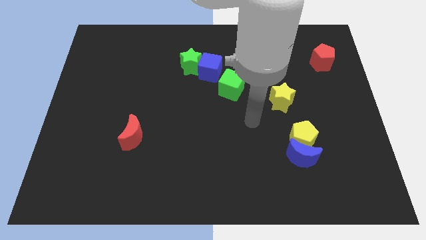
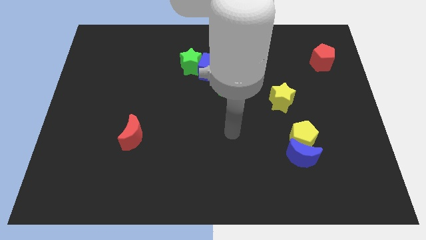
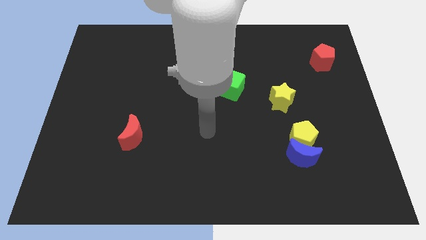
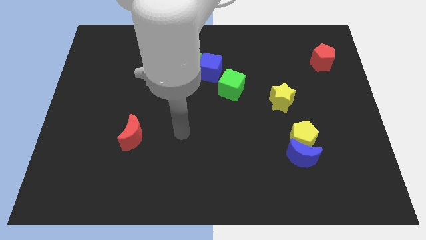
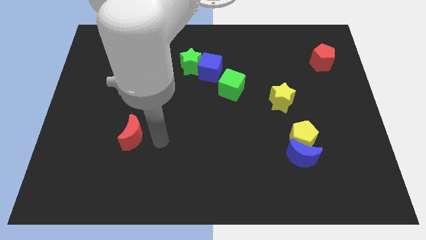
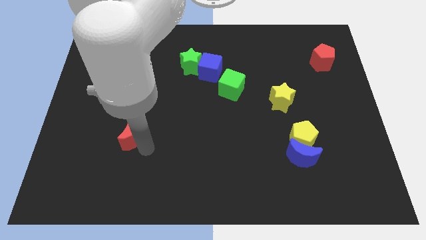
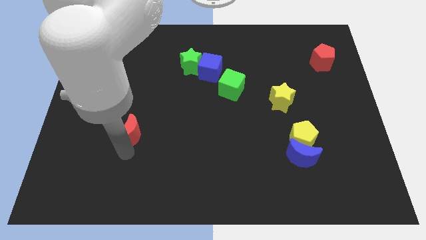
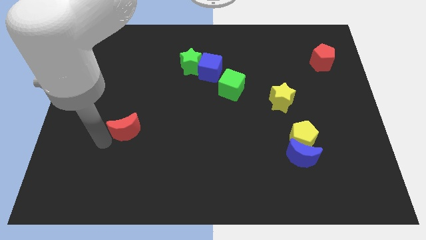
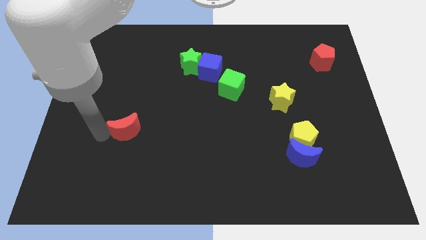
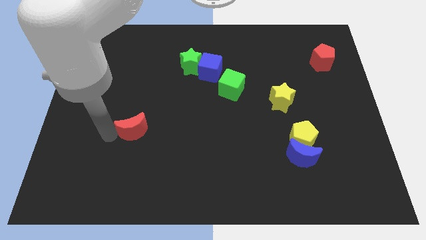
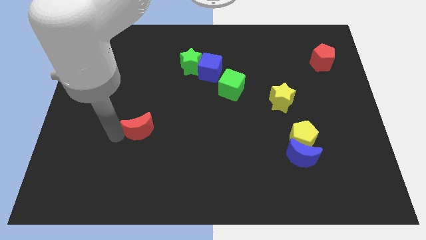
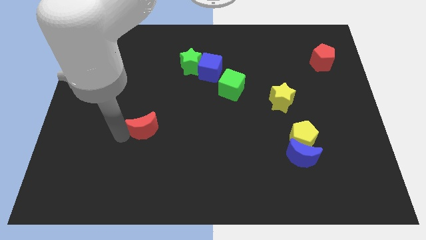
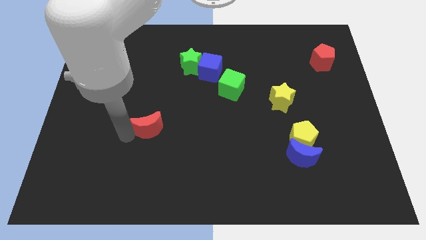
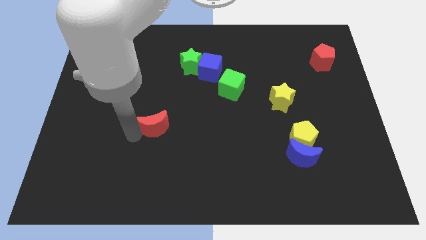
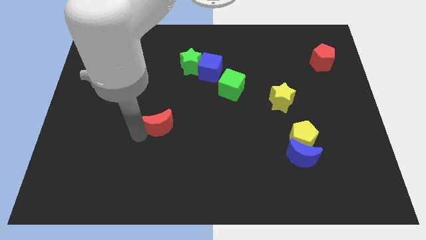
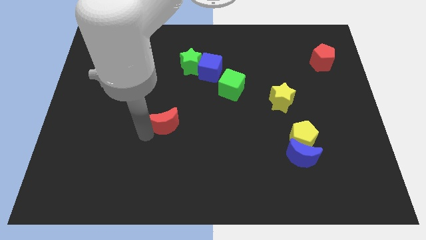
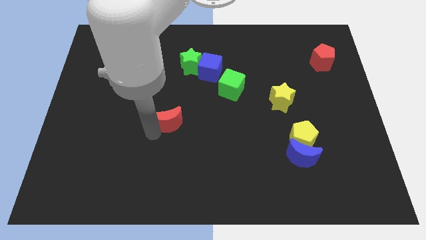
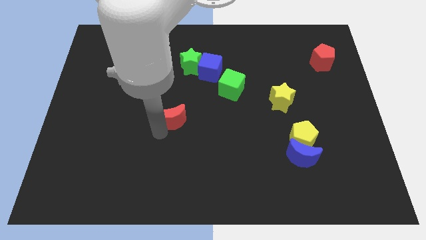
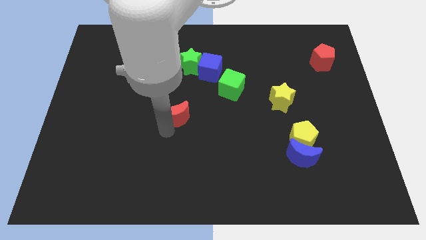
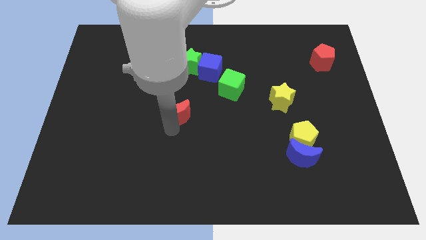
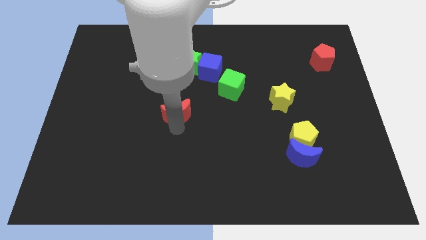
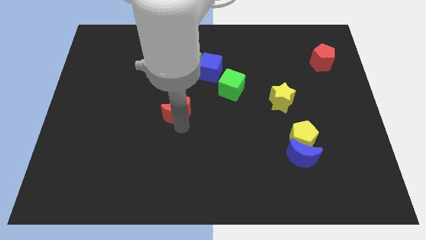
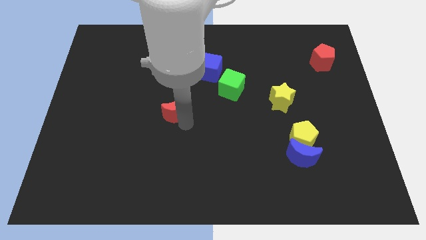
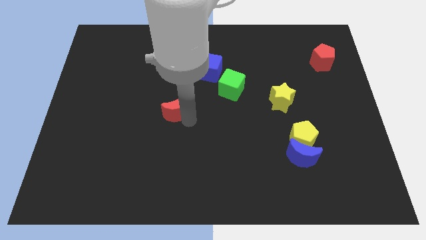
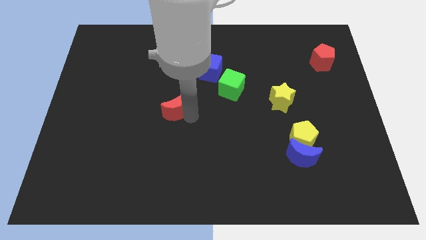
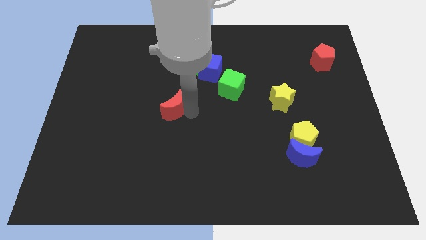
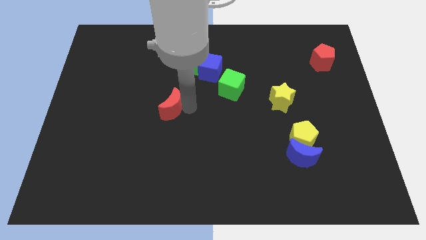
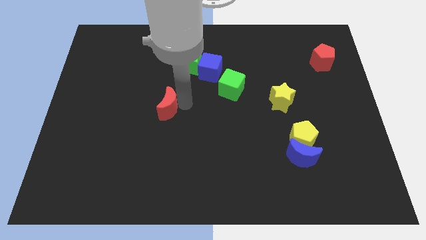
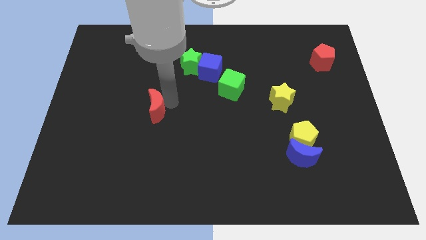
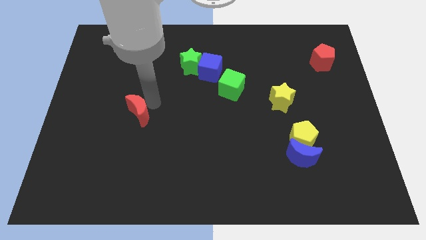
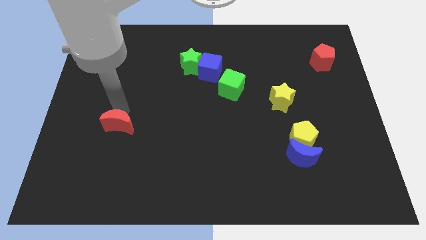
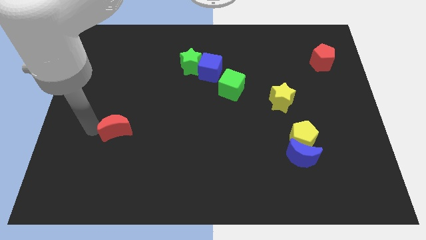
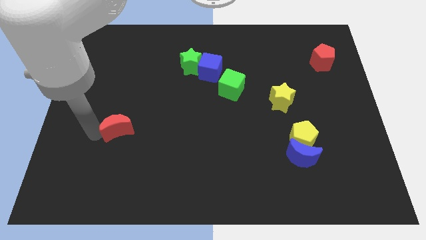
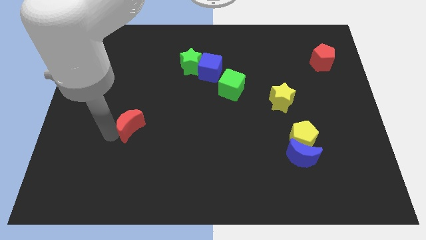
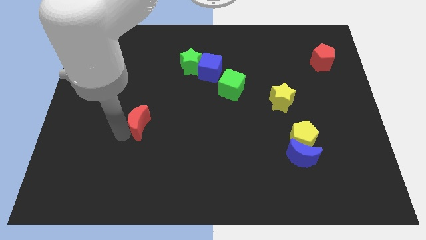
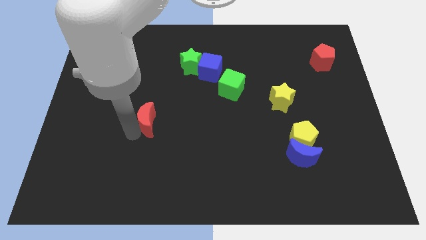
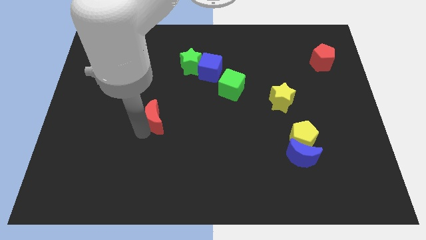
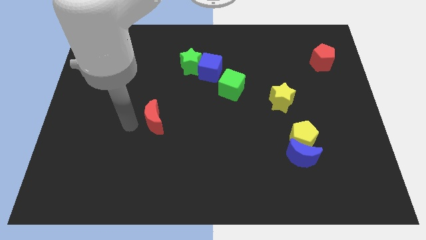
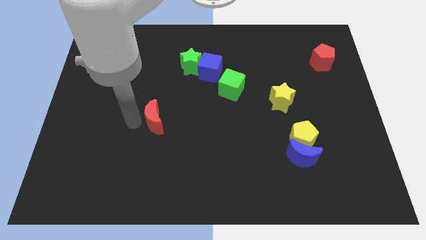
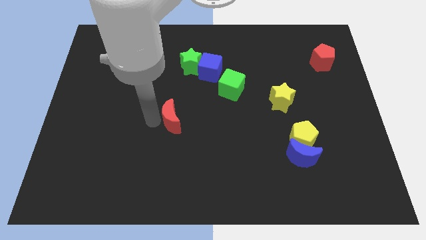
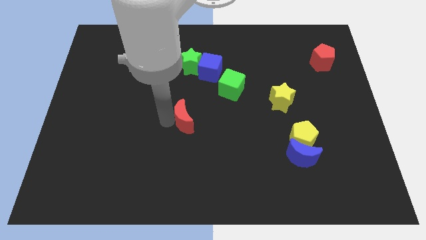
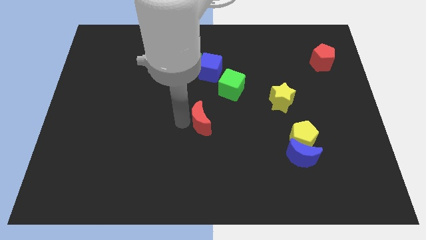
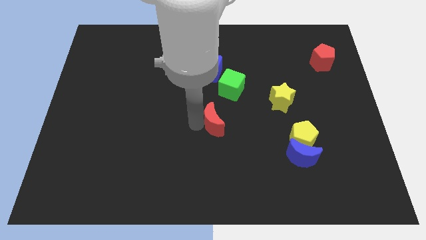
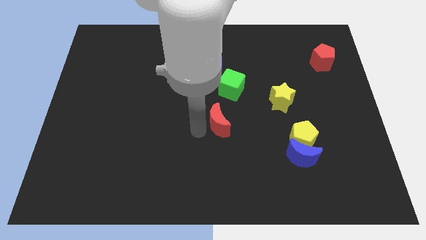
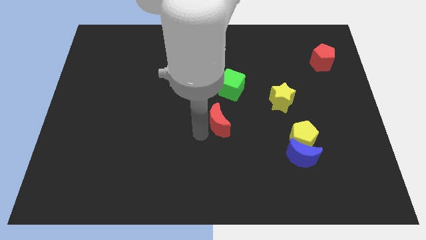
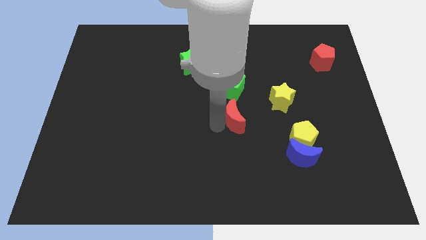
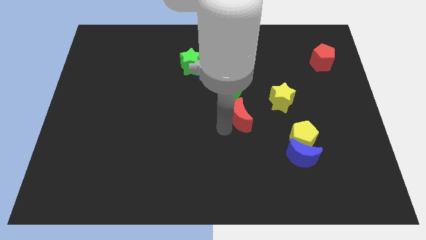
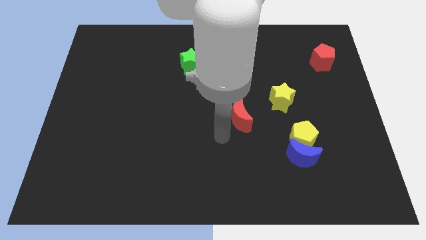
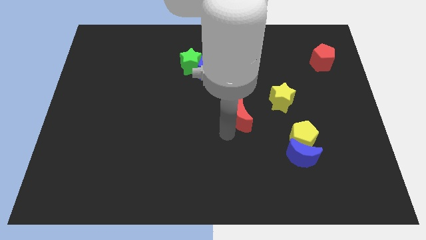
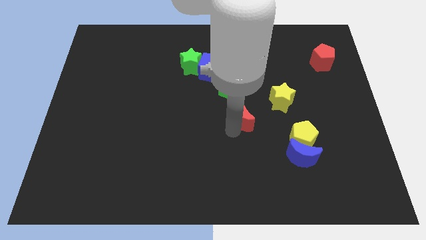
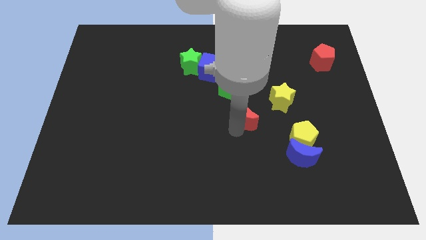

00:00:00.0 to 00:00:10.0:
move the red moon to the bottom right side of the green cube

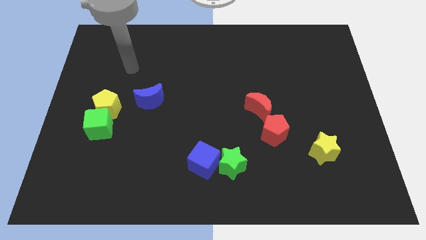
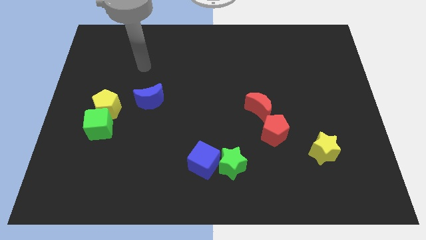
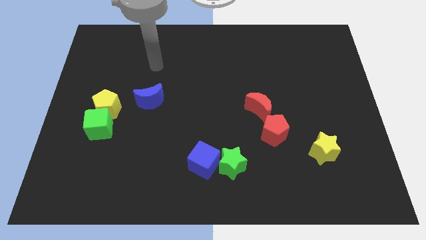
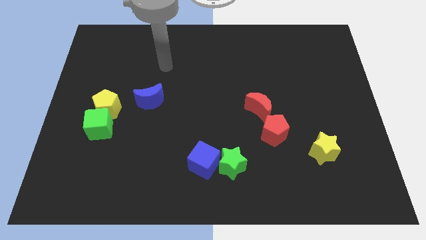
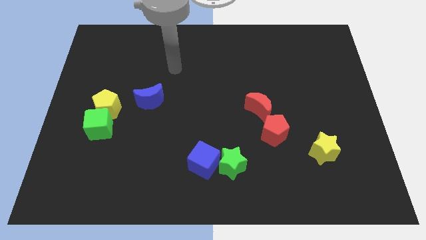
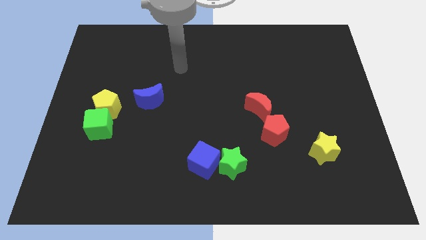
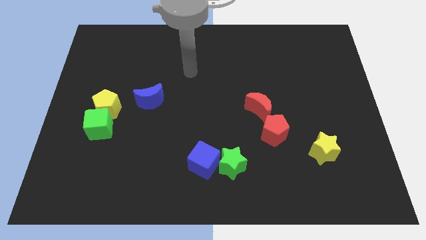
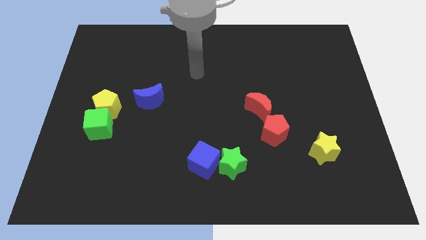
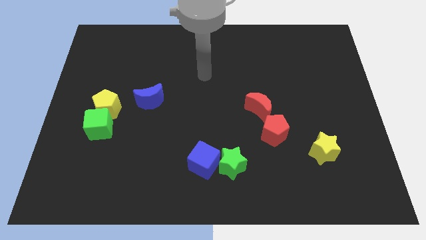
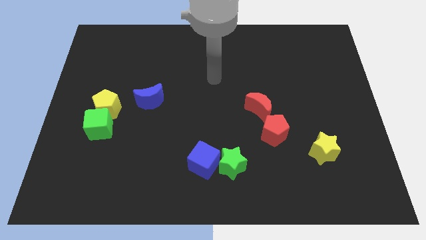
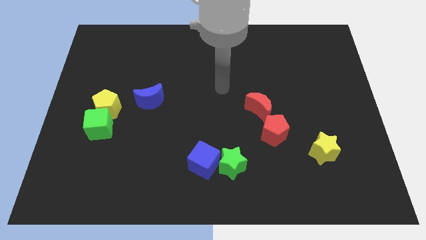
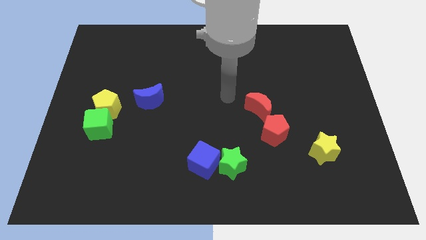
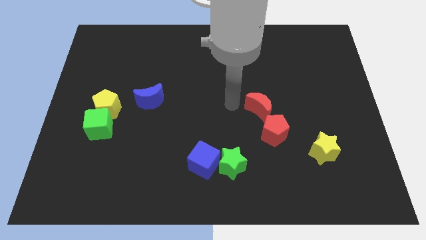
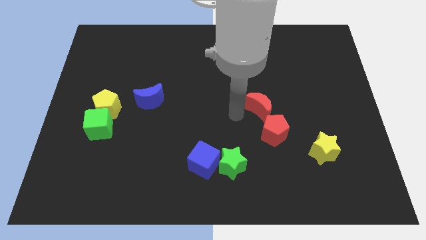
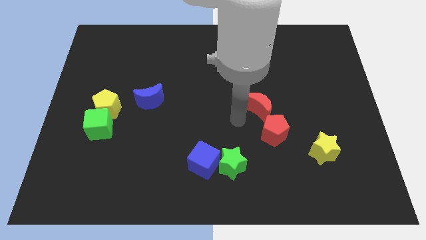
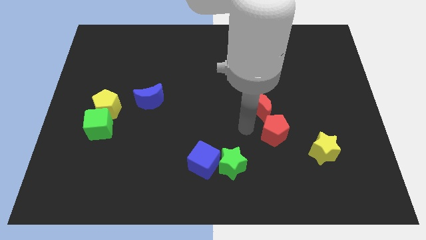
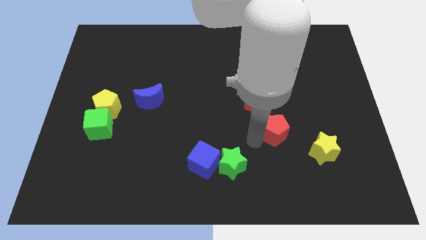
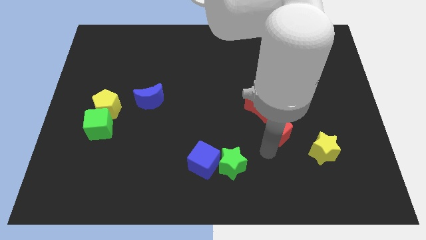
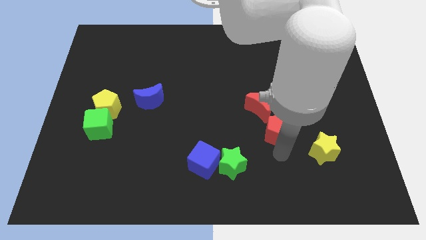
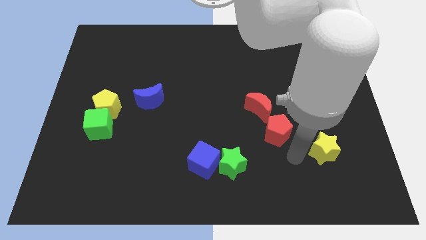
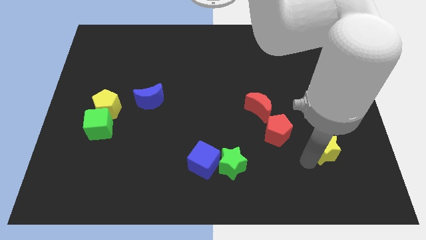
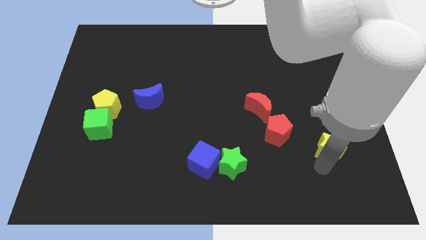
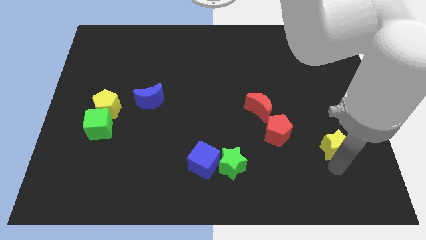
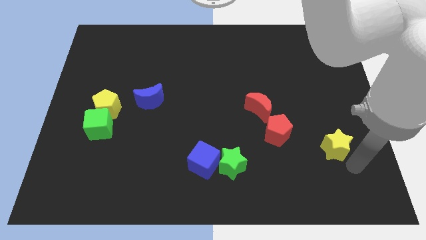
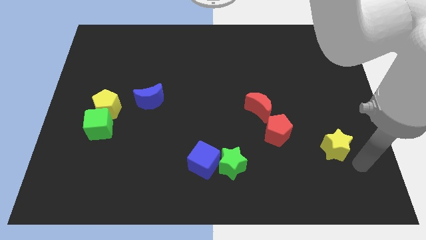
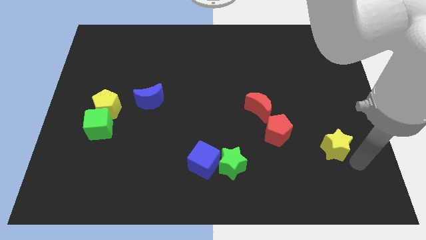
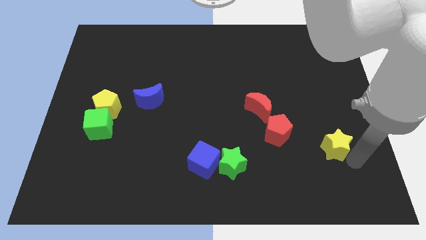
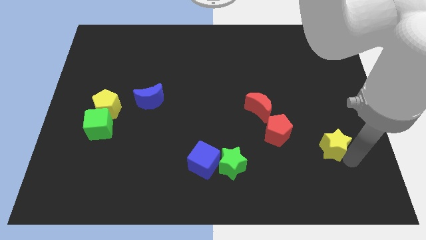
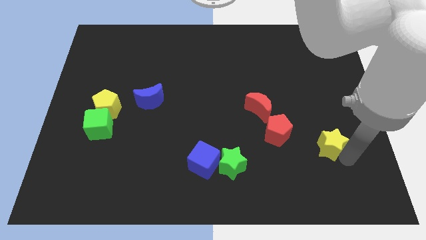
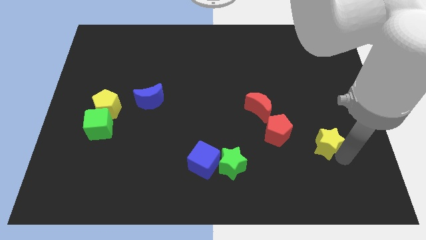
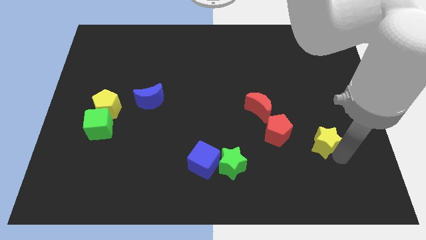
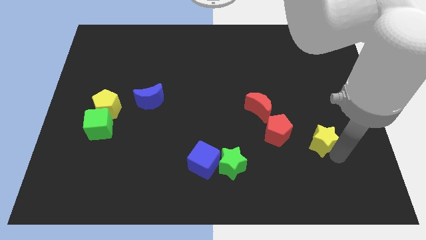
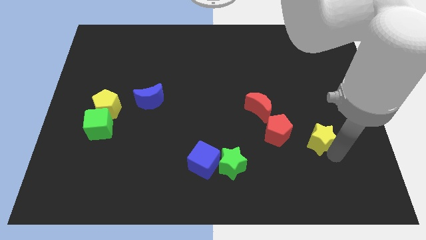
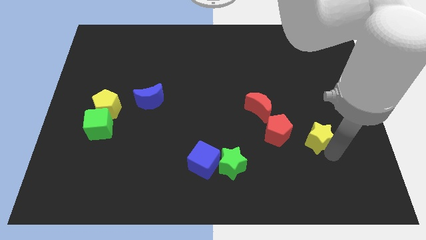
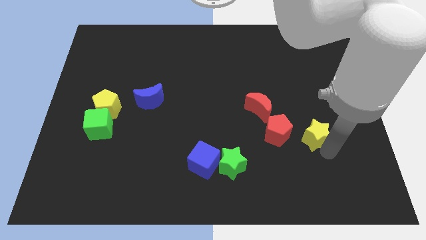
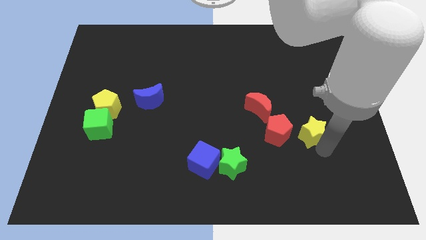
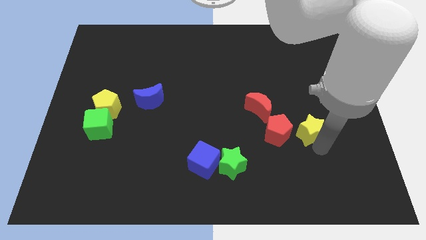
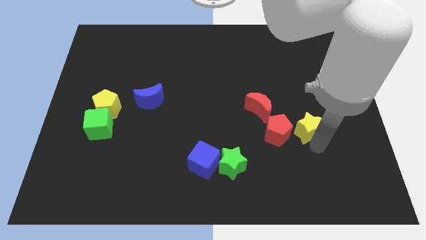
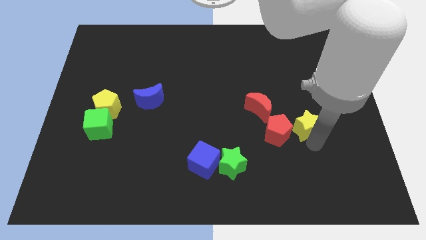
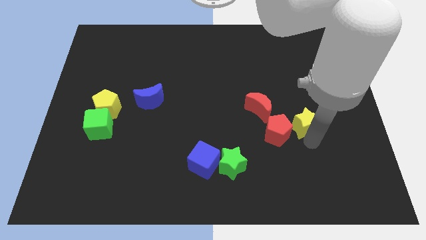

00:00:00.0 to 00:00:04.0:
put the yellow star just right of the red moon
